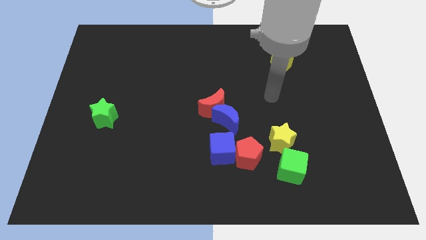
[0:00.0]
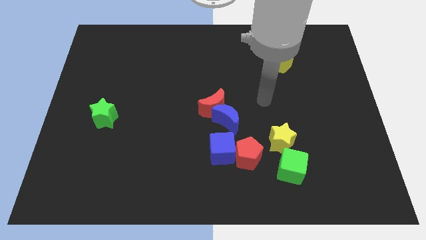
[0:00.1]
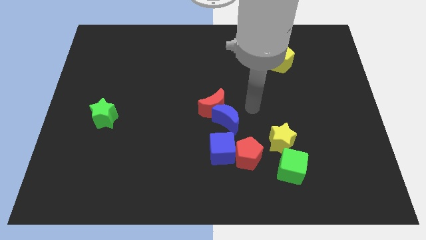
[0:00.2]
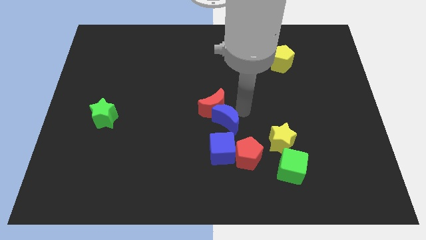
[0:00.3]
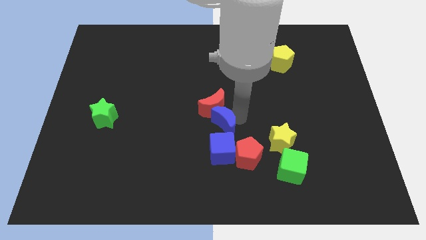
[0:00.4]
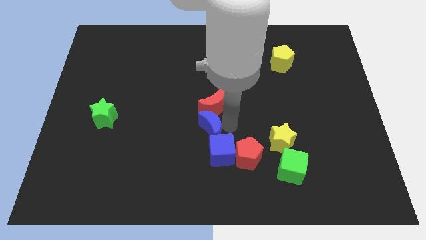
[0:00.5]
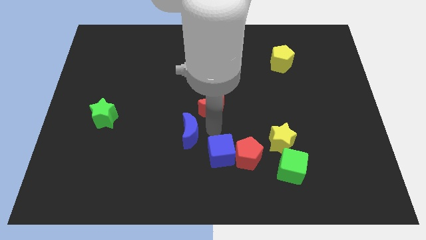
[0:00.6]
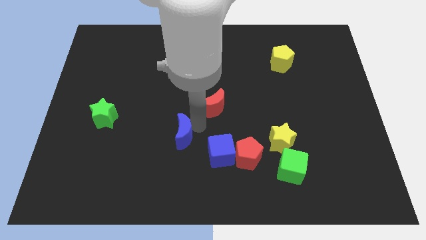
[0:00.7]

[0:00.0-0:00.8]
move the red moon away from the blue moon

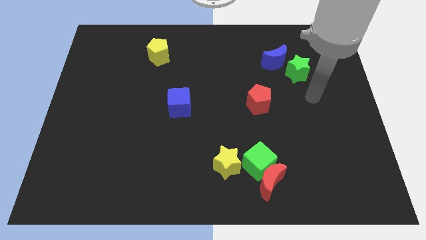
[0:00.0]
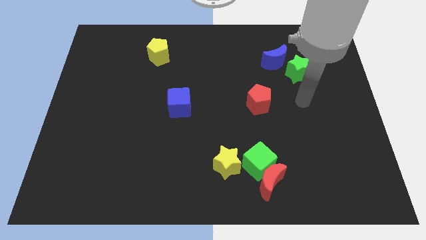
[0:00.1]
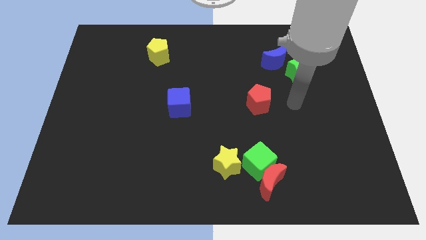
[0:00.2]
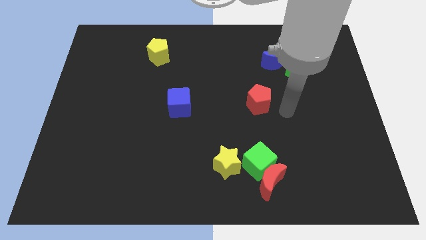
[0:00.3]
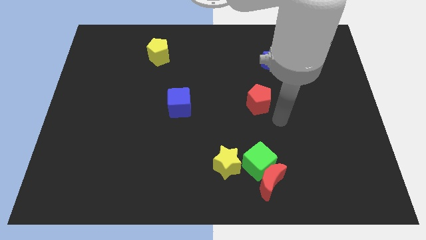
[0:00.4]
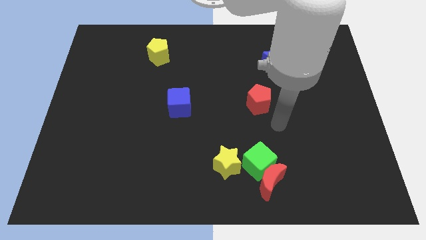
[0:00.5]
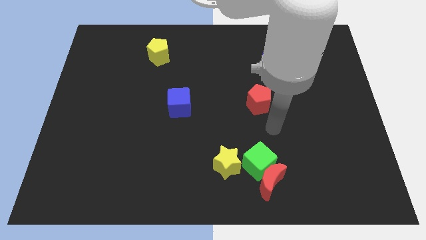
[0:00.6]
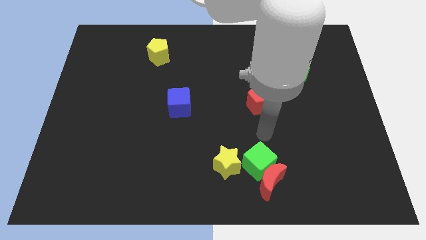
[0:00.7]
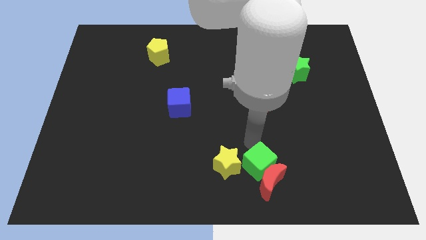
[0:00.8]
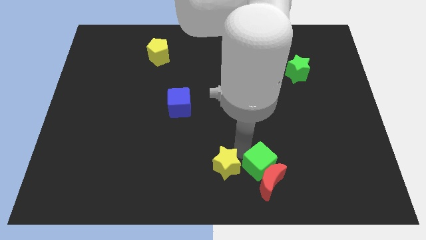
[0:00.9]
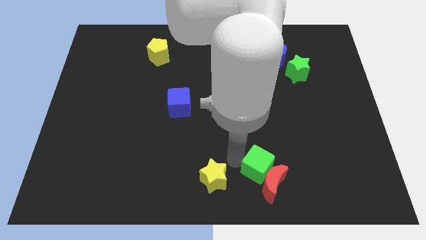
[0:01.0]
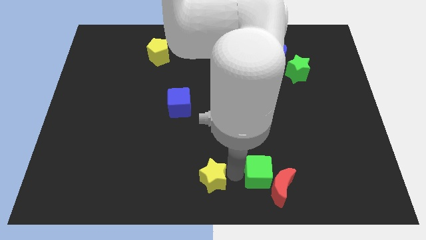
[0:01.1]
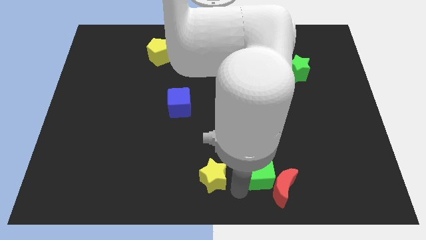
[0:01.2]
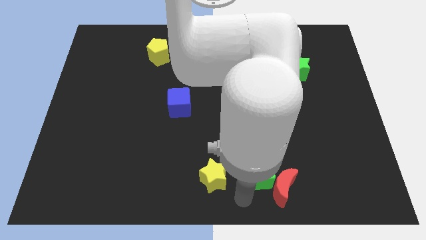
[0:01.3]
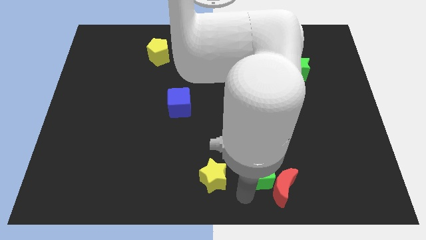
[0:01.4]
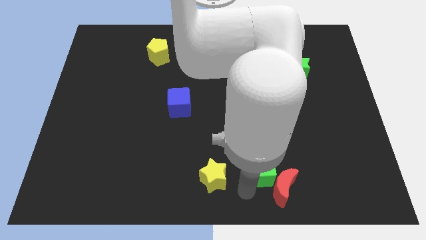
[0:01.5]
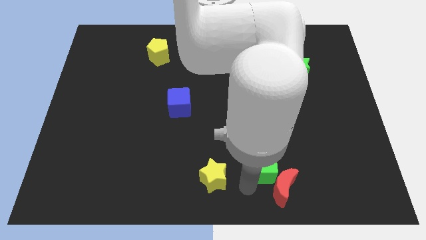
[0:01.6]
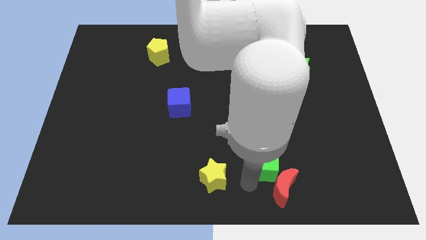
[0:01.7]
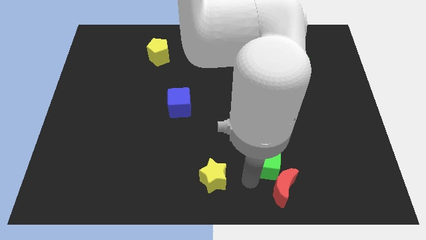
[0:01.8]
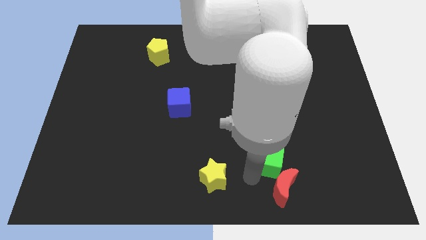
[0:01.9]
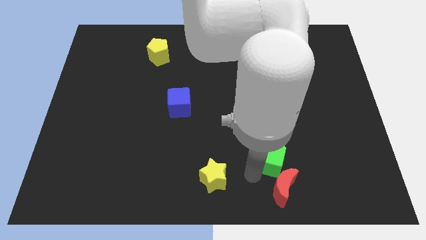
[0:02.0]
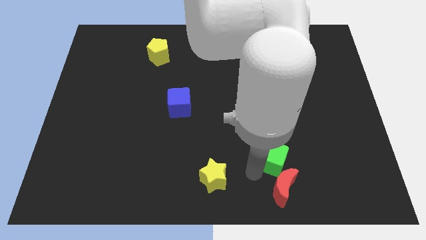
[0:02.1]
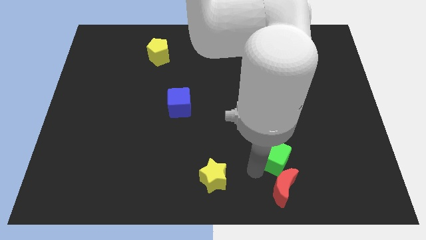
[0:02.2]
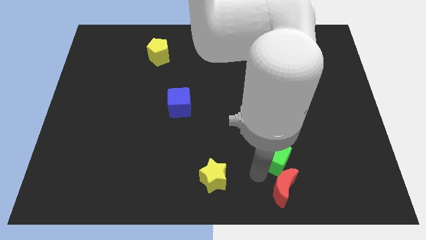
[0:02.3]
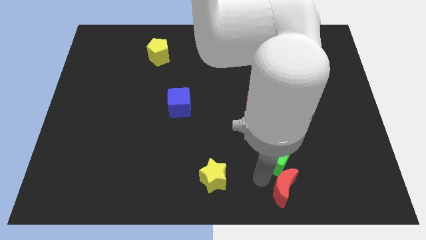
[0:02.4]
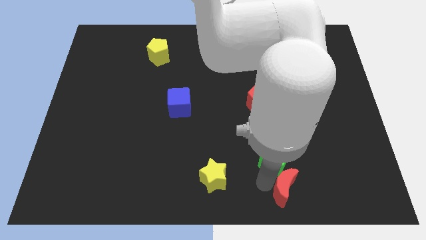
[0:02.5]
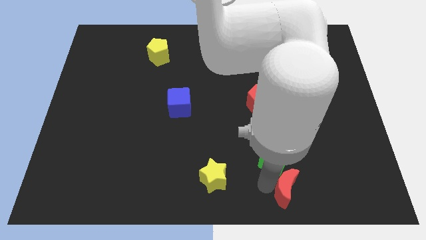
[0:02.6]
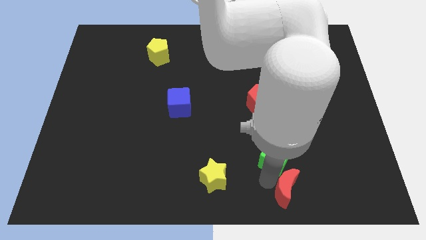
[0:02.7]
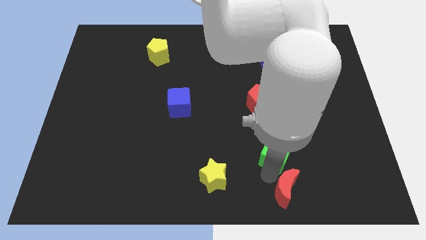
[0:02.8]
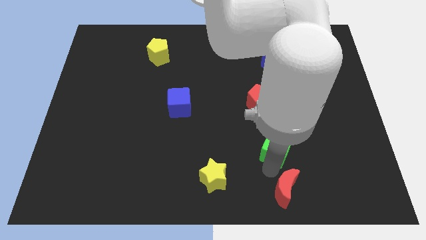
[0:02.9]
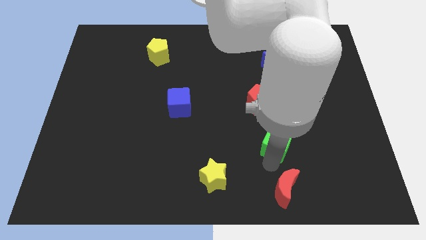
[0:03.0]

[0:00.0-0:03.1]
move the green cube away from the red moon and yellow star

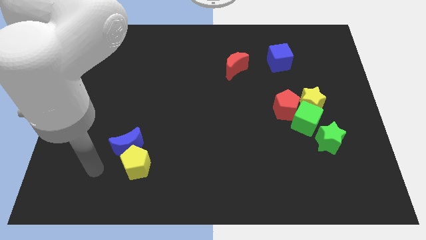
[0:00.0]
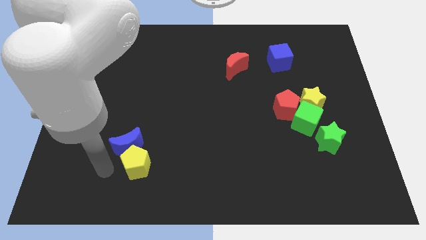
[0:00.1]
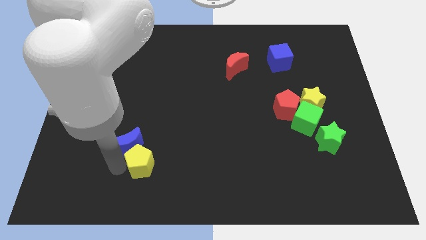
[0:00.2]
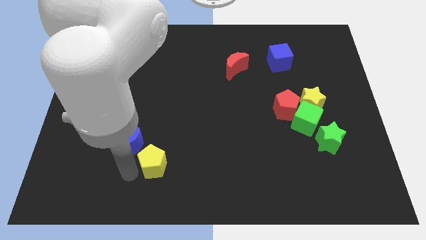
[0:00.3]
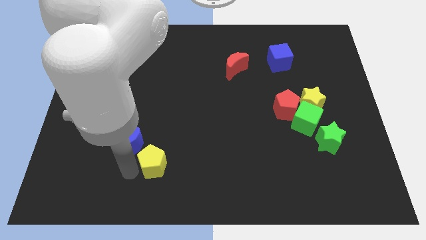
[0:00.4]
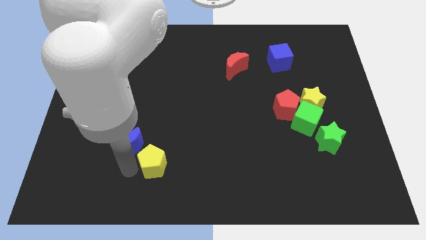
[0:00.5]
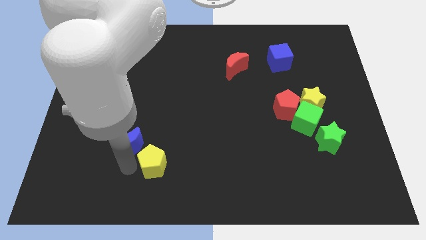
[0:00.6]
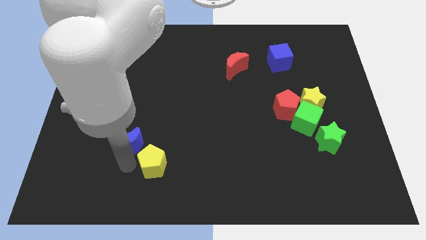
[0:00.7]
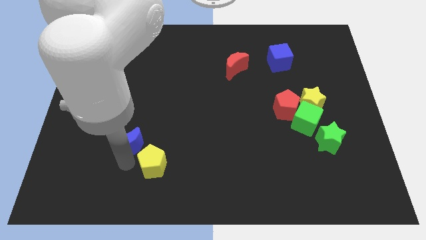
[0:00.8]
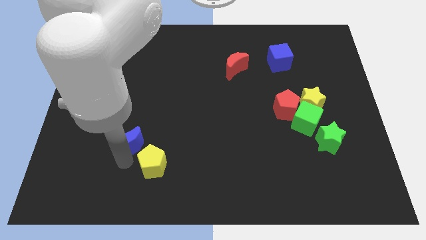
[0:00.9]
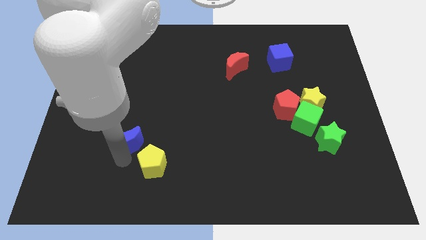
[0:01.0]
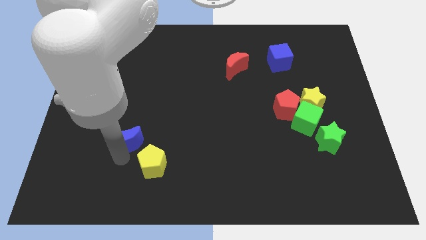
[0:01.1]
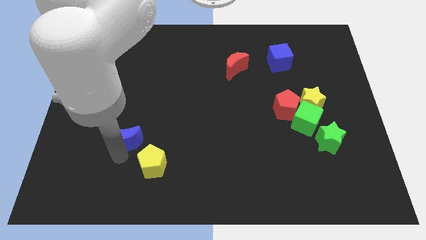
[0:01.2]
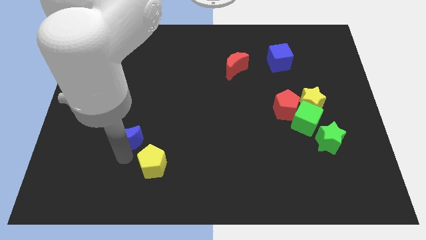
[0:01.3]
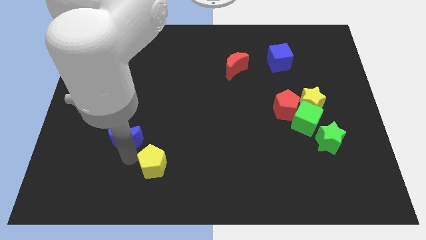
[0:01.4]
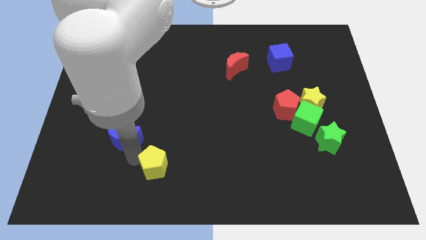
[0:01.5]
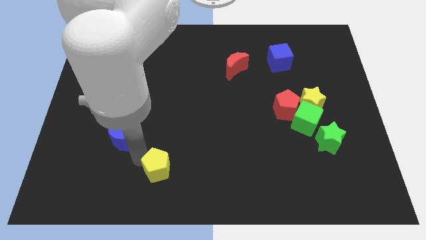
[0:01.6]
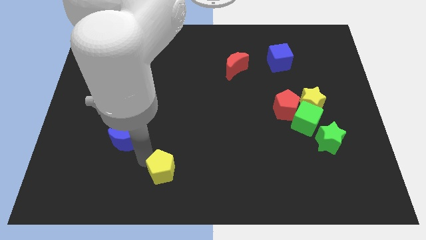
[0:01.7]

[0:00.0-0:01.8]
separate the blue moon from the yellow pentagon

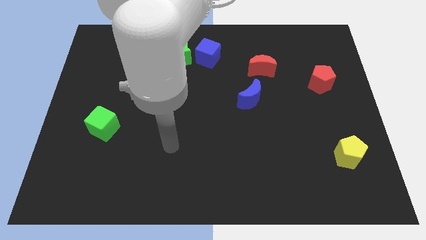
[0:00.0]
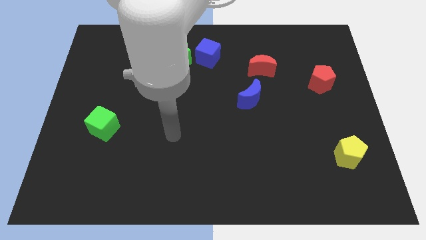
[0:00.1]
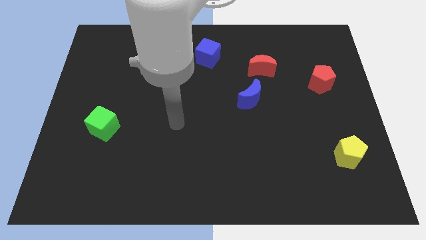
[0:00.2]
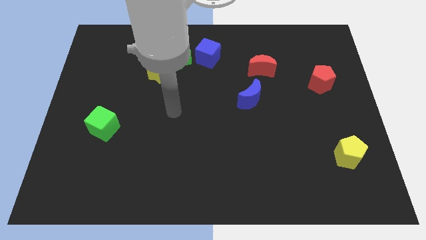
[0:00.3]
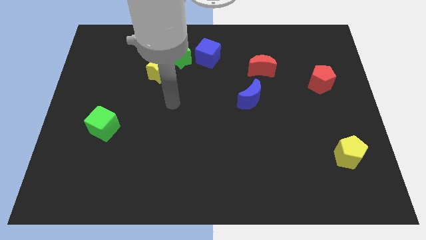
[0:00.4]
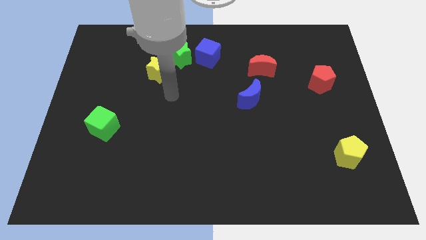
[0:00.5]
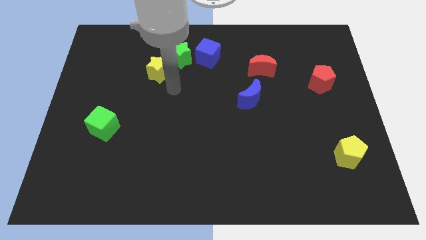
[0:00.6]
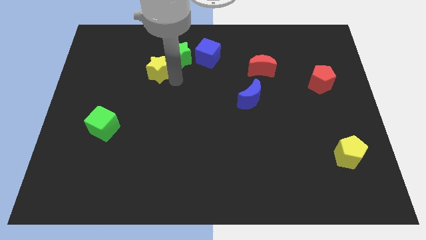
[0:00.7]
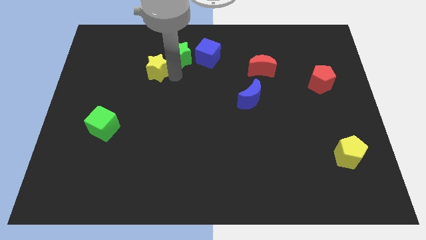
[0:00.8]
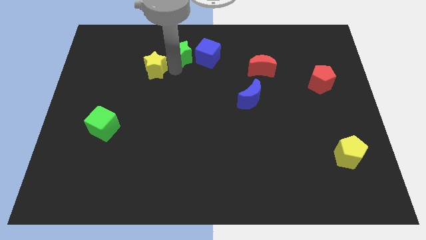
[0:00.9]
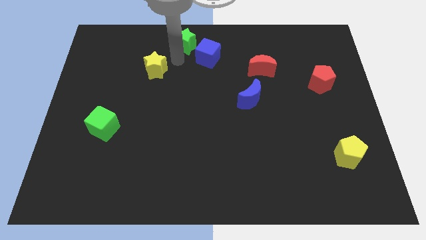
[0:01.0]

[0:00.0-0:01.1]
separate the yellow star from the green star

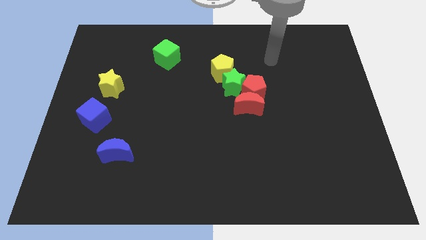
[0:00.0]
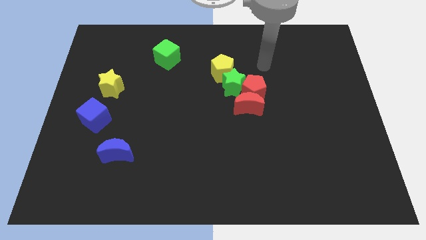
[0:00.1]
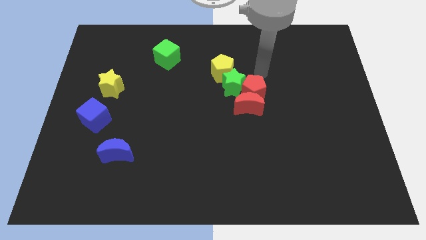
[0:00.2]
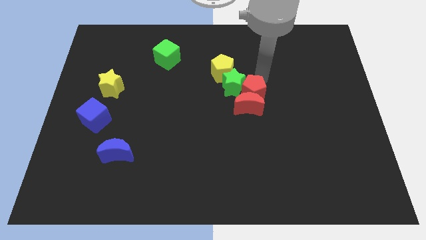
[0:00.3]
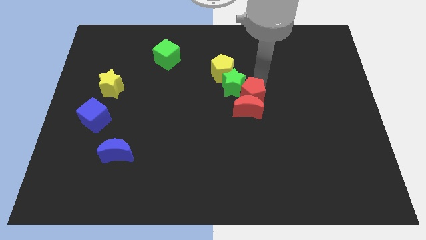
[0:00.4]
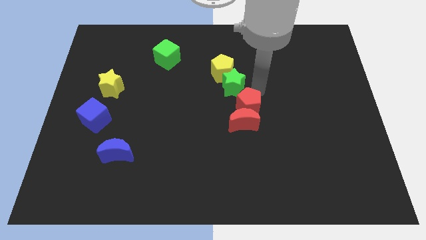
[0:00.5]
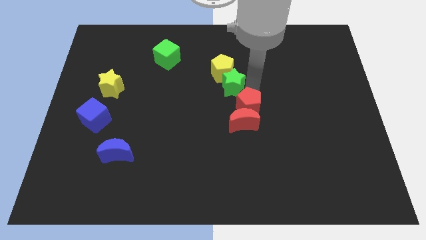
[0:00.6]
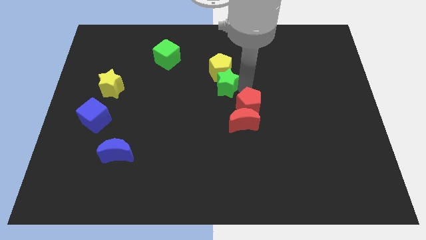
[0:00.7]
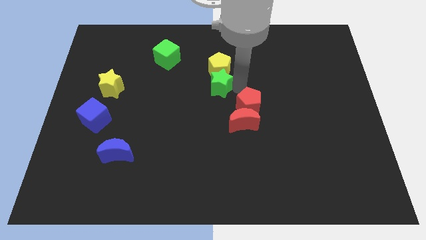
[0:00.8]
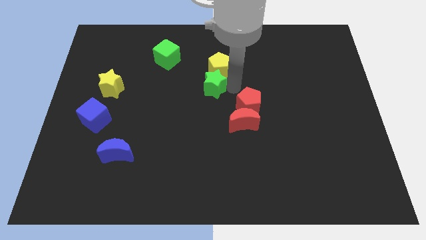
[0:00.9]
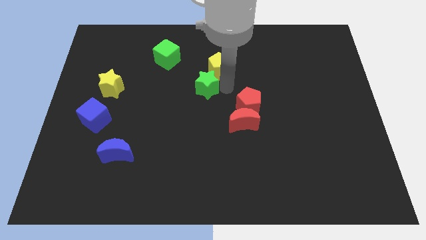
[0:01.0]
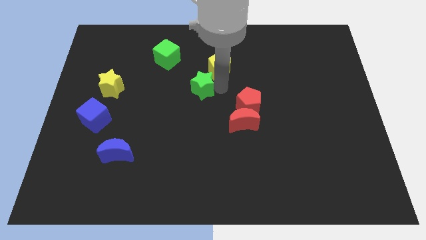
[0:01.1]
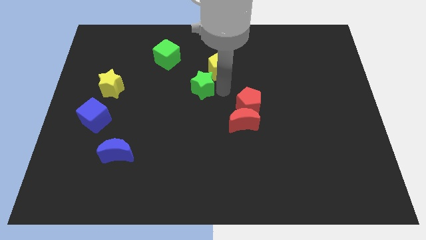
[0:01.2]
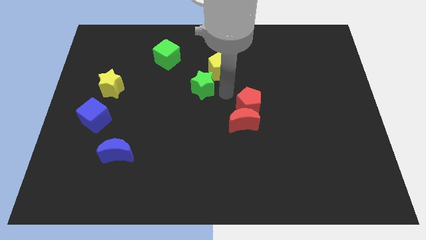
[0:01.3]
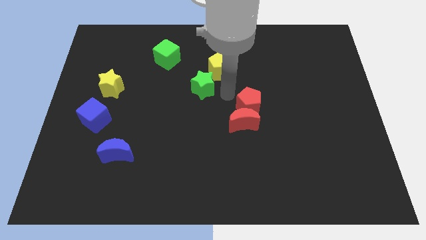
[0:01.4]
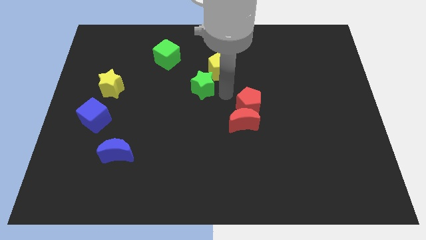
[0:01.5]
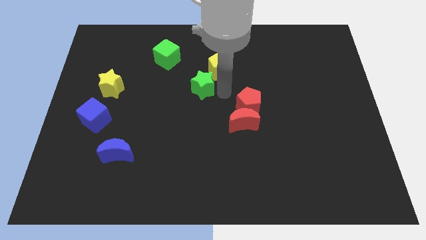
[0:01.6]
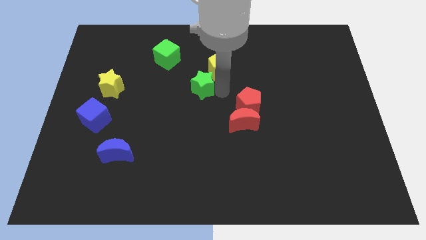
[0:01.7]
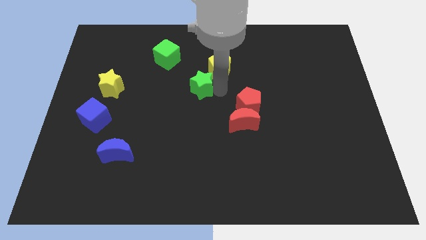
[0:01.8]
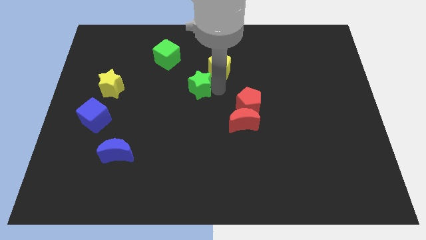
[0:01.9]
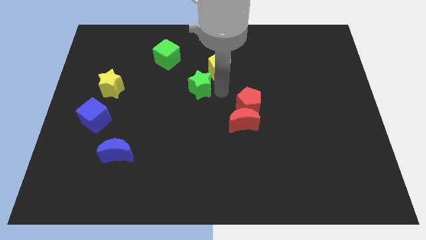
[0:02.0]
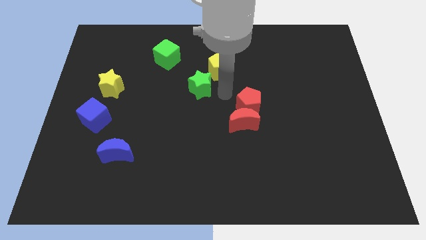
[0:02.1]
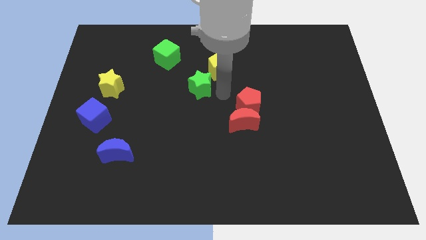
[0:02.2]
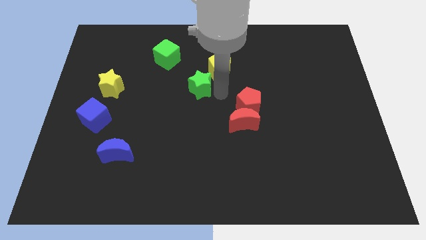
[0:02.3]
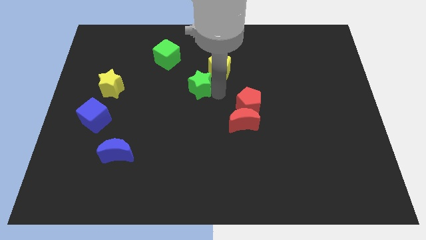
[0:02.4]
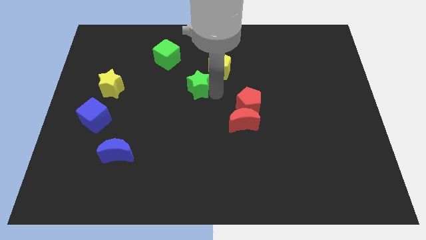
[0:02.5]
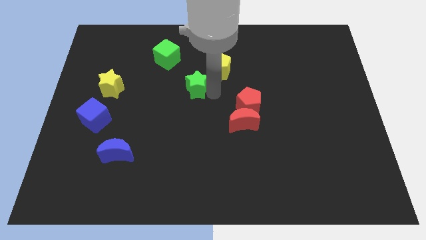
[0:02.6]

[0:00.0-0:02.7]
separate the green star from the group
